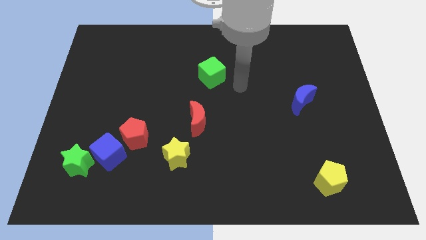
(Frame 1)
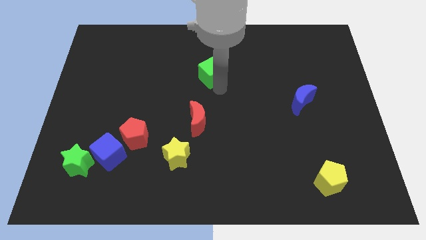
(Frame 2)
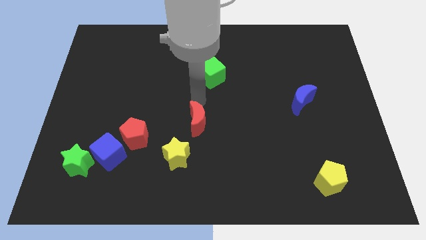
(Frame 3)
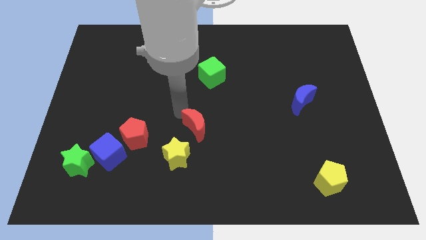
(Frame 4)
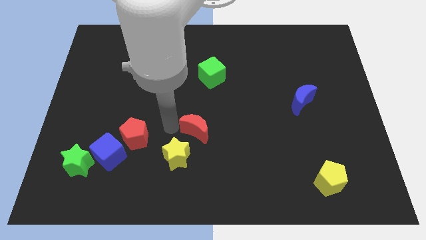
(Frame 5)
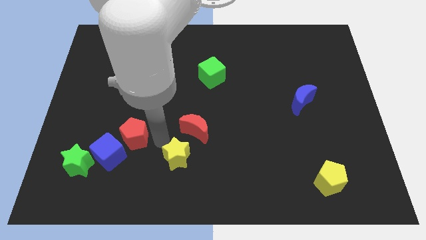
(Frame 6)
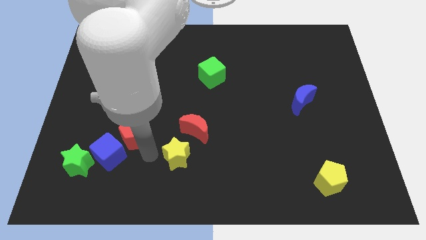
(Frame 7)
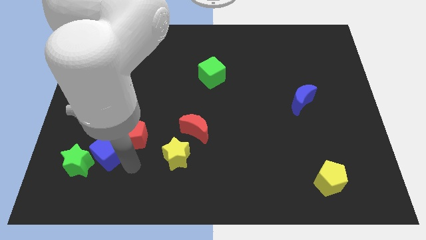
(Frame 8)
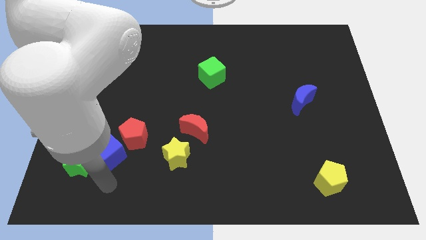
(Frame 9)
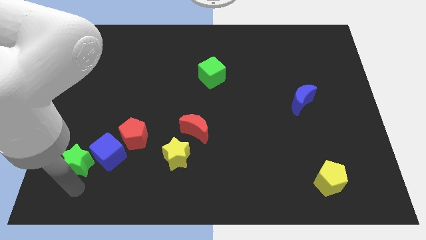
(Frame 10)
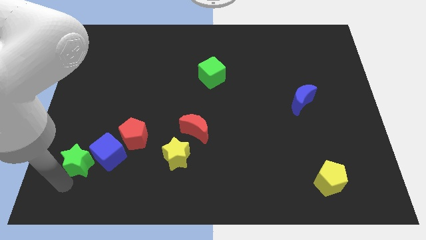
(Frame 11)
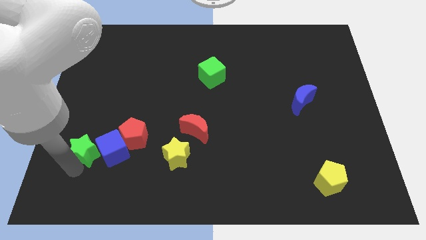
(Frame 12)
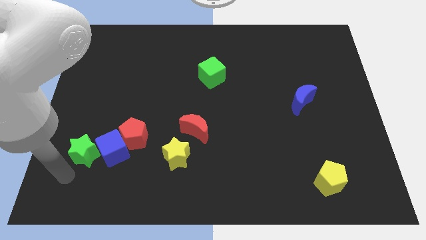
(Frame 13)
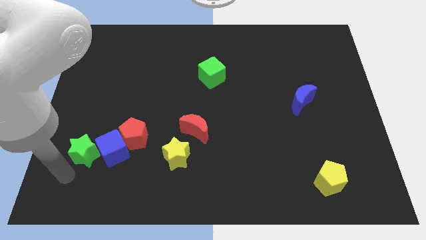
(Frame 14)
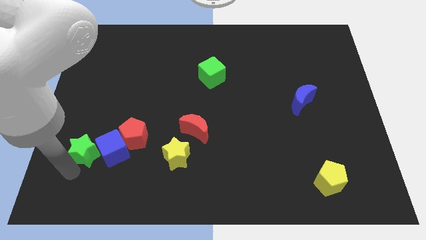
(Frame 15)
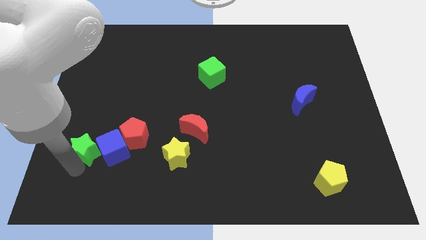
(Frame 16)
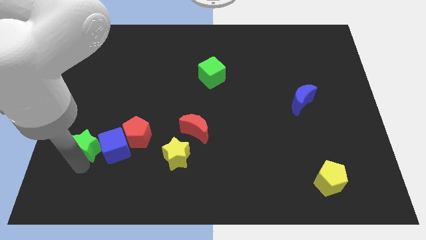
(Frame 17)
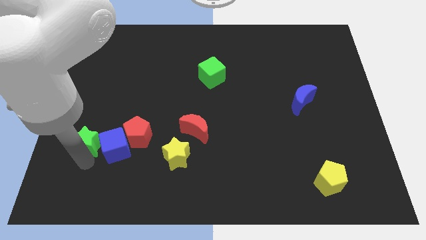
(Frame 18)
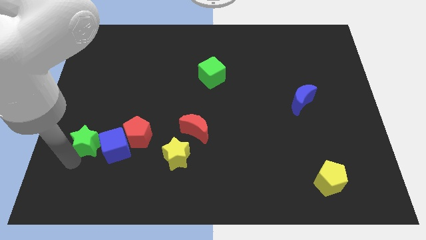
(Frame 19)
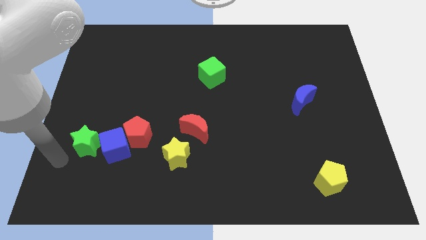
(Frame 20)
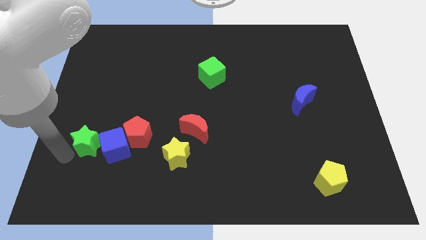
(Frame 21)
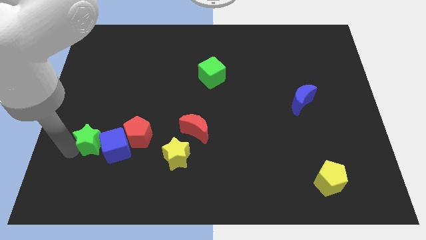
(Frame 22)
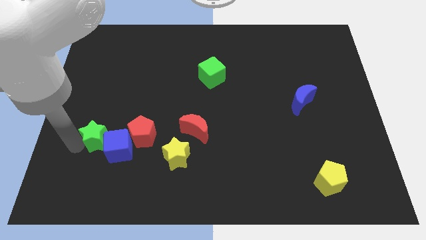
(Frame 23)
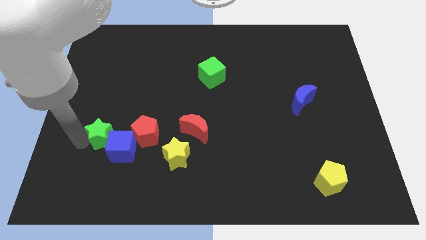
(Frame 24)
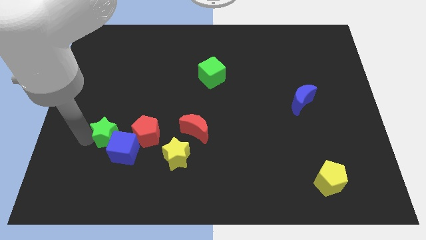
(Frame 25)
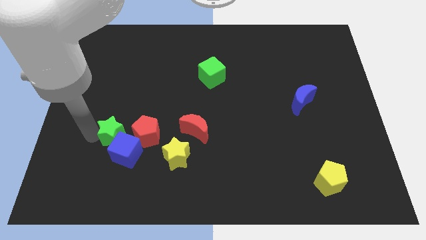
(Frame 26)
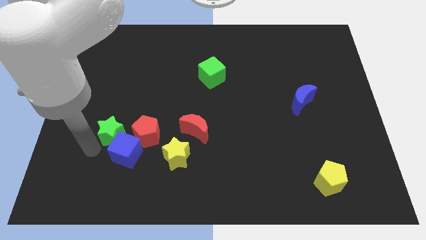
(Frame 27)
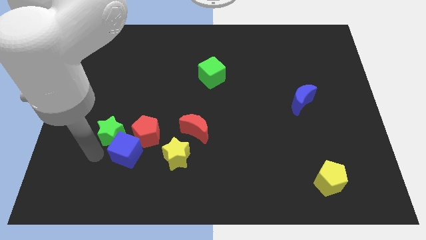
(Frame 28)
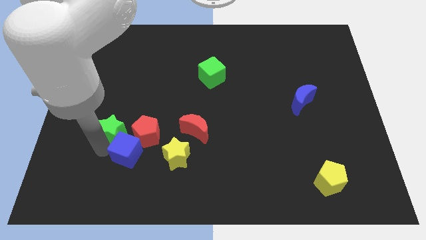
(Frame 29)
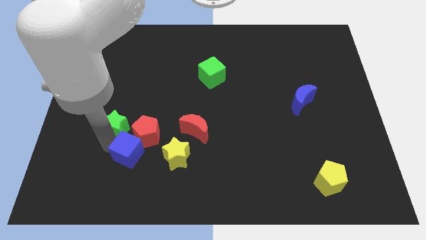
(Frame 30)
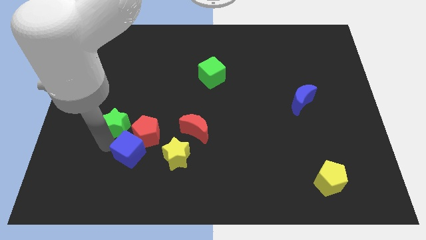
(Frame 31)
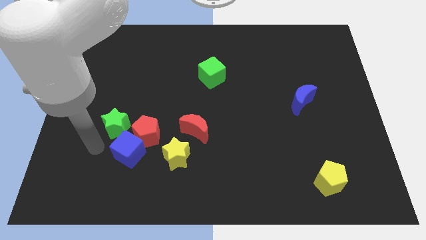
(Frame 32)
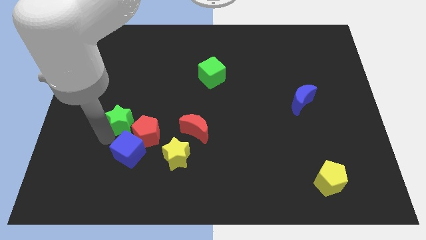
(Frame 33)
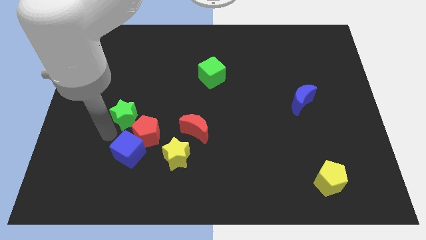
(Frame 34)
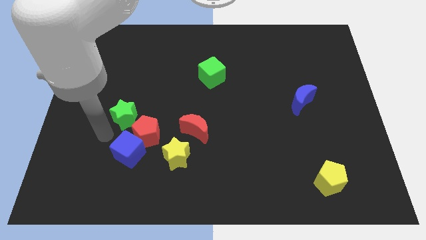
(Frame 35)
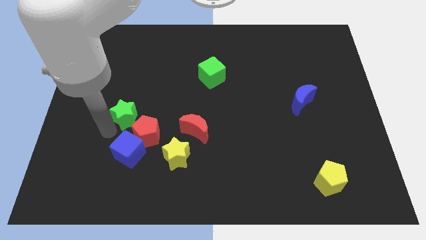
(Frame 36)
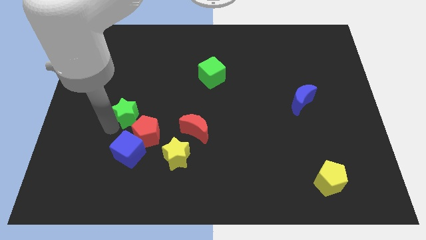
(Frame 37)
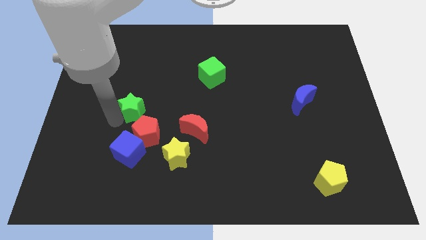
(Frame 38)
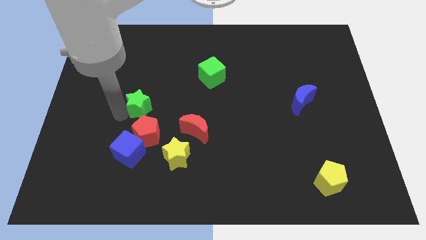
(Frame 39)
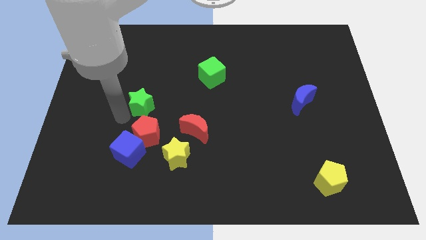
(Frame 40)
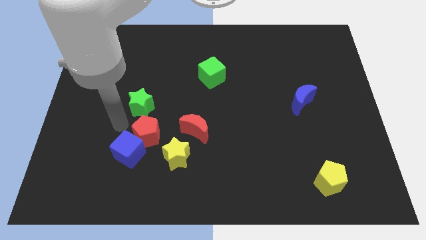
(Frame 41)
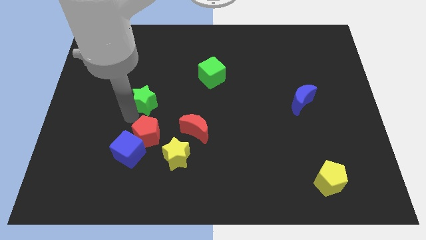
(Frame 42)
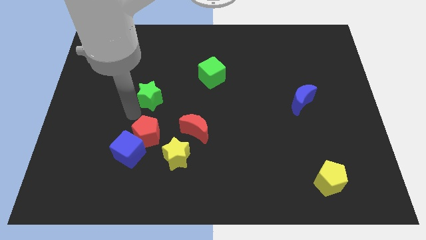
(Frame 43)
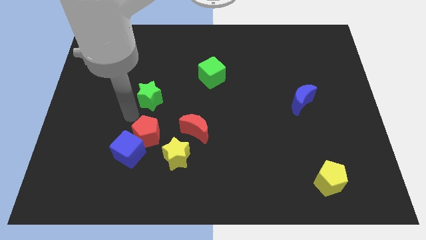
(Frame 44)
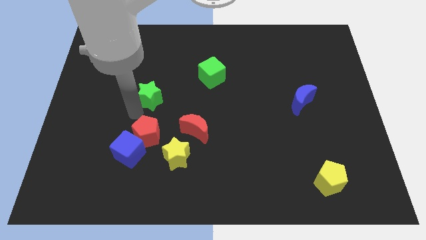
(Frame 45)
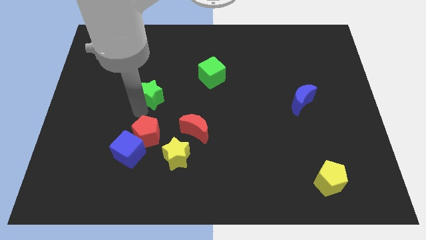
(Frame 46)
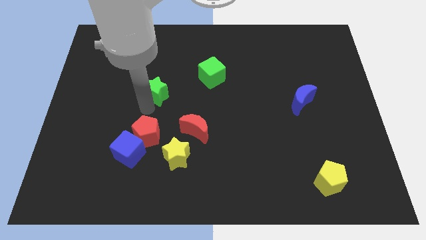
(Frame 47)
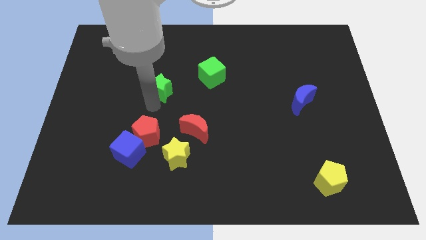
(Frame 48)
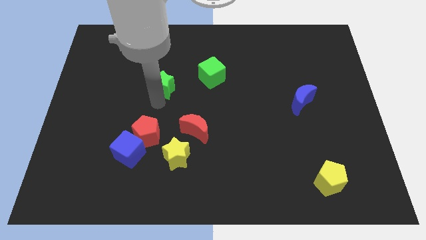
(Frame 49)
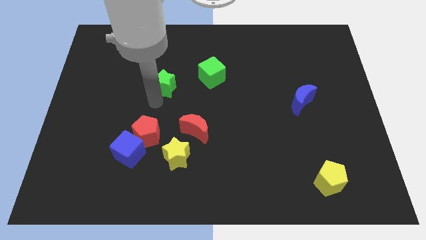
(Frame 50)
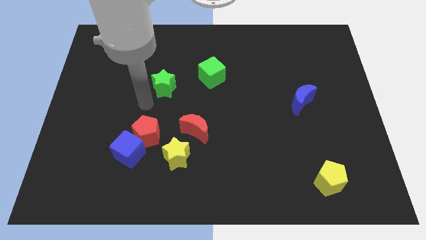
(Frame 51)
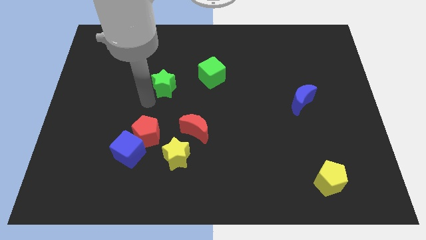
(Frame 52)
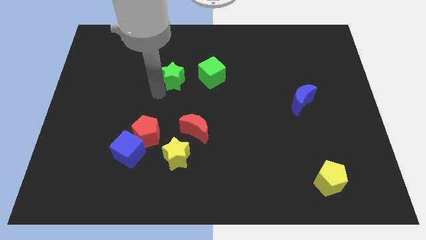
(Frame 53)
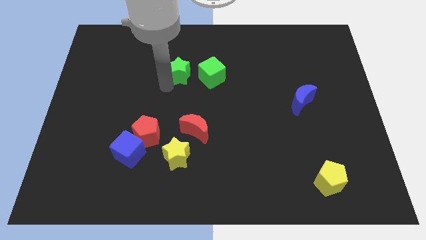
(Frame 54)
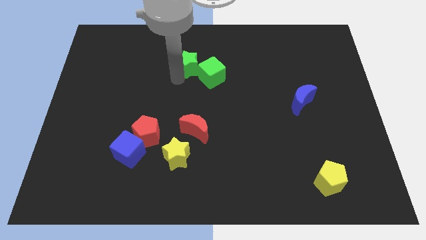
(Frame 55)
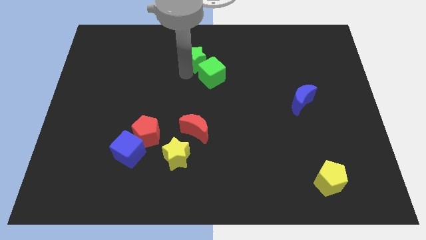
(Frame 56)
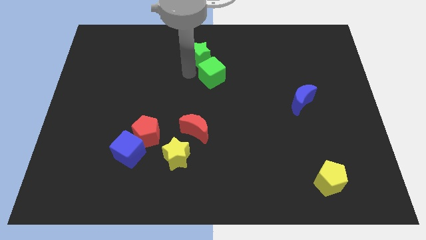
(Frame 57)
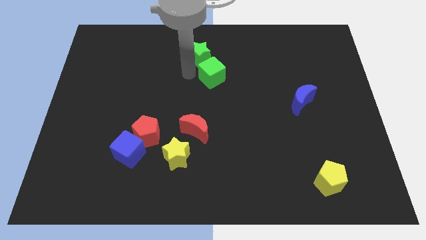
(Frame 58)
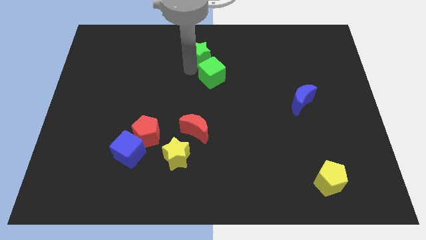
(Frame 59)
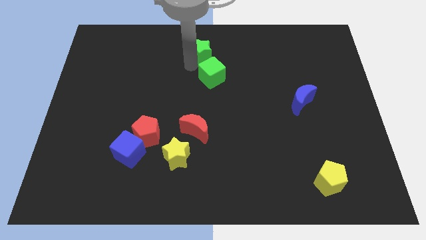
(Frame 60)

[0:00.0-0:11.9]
put the green star to the top
